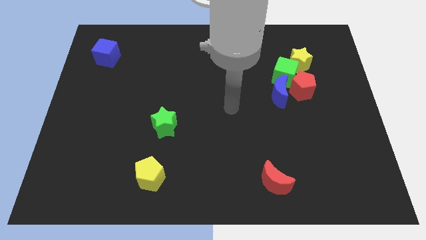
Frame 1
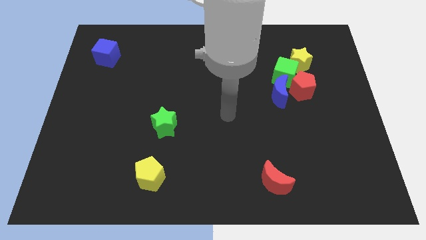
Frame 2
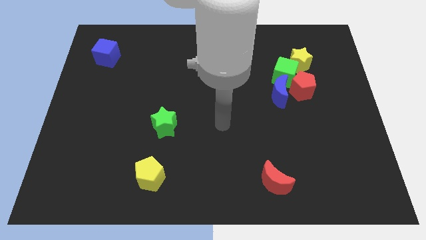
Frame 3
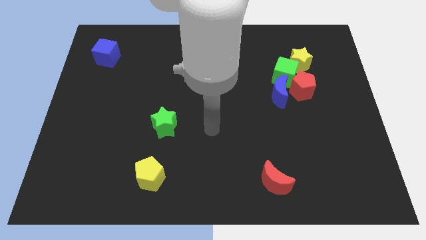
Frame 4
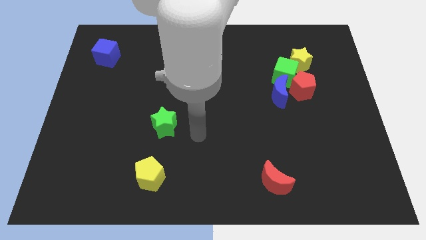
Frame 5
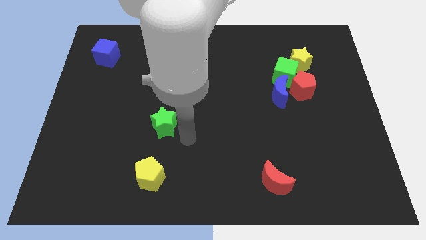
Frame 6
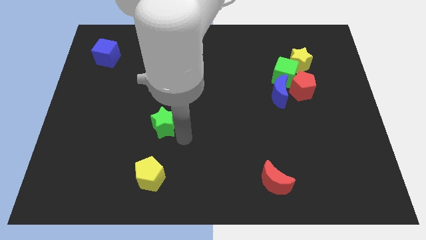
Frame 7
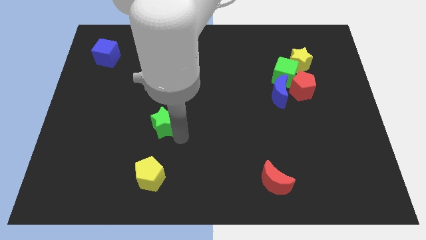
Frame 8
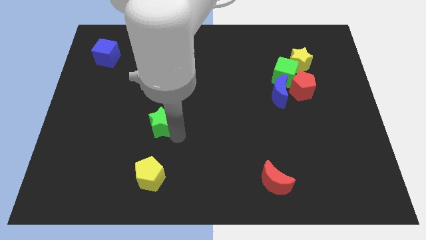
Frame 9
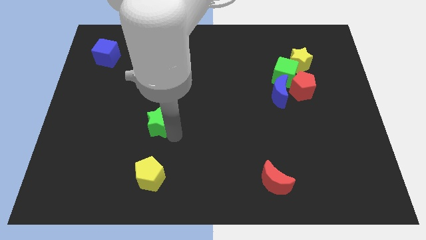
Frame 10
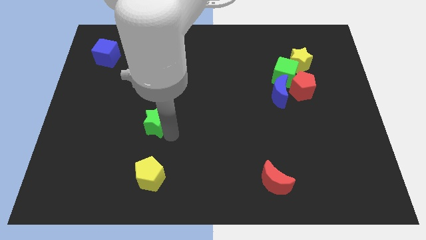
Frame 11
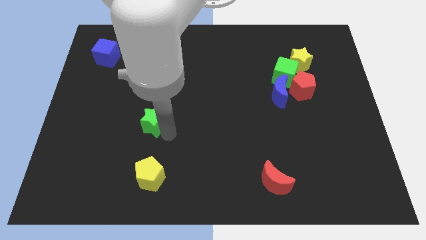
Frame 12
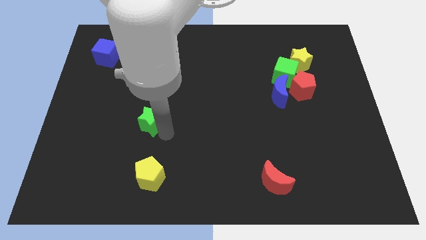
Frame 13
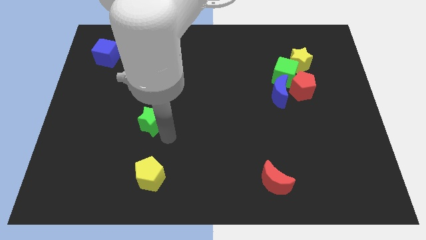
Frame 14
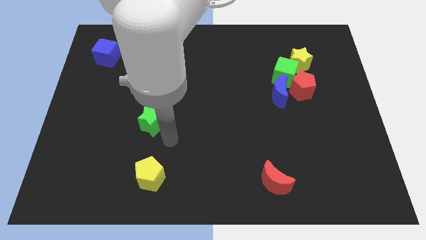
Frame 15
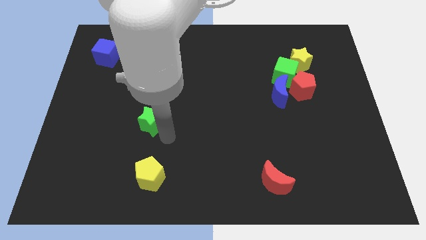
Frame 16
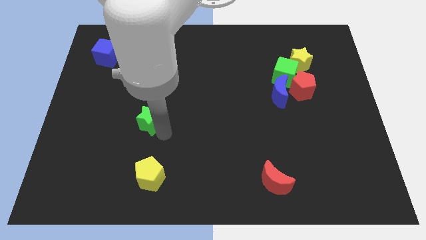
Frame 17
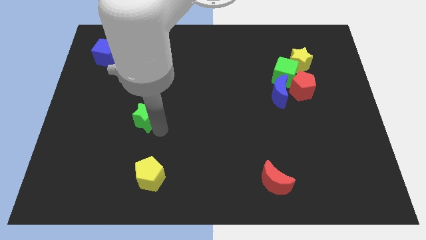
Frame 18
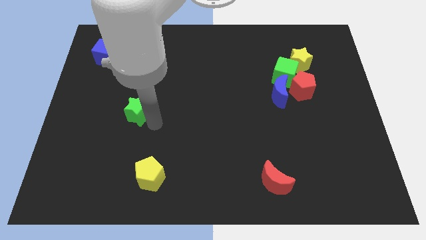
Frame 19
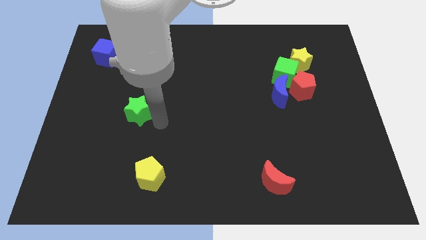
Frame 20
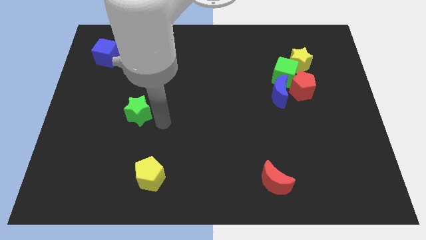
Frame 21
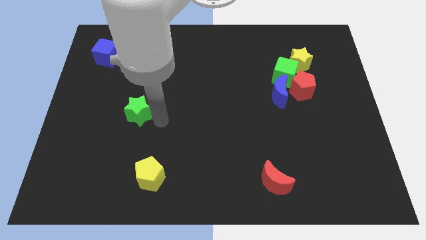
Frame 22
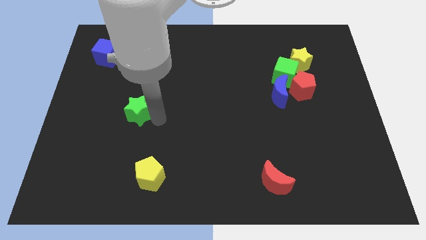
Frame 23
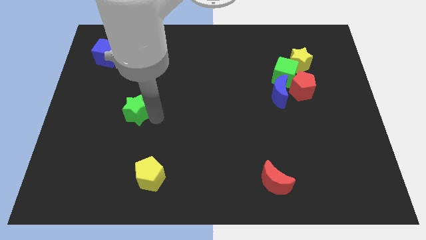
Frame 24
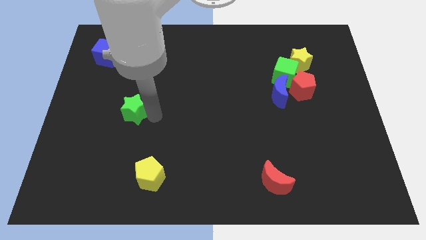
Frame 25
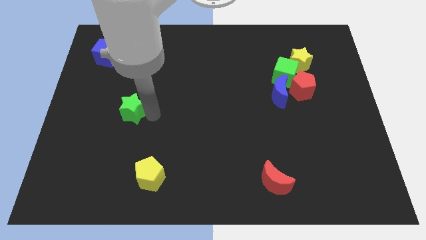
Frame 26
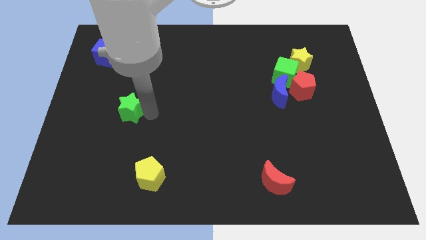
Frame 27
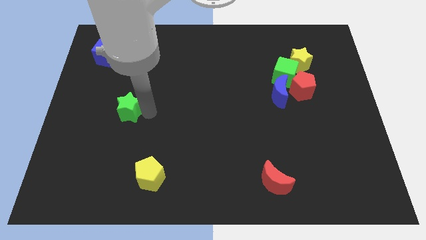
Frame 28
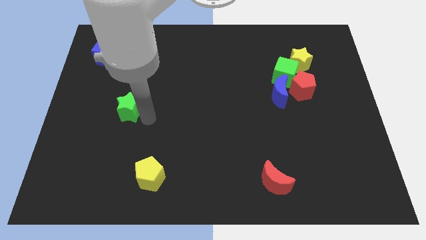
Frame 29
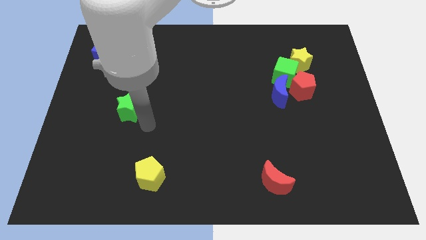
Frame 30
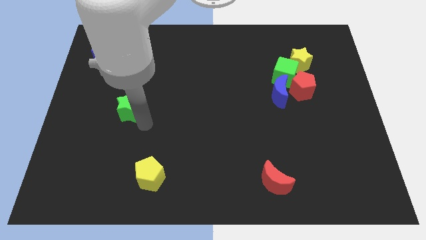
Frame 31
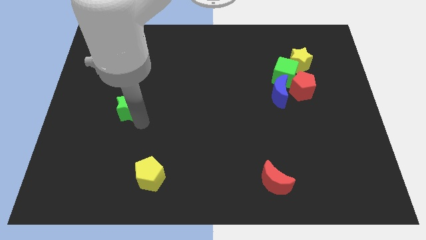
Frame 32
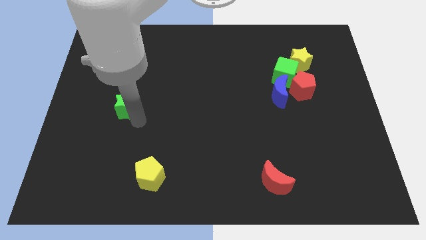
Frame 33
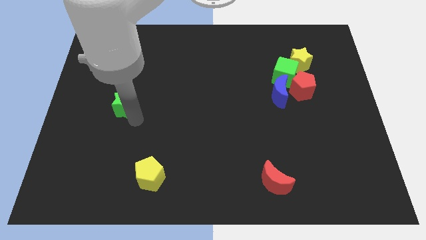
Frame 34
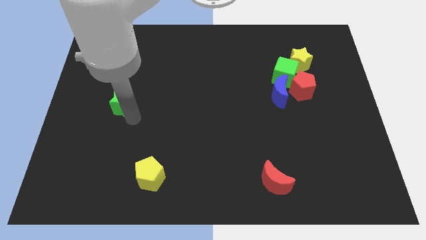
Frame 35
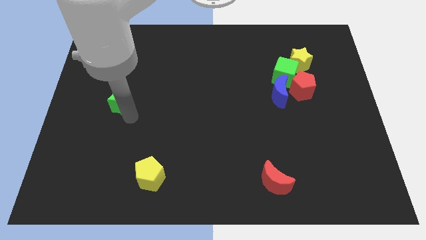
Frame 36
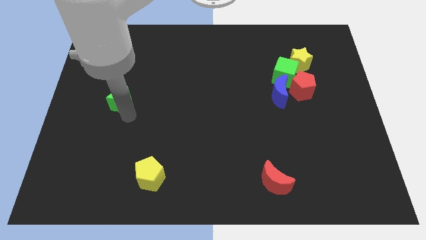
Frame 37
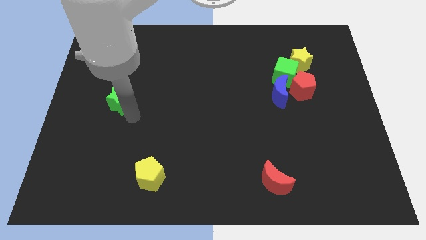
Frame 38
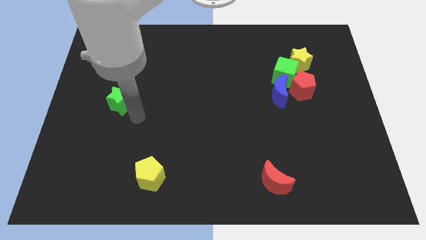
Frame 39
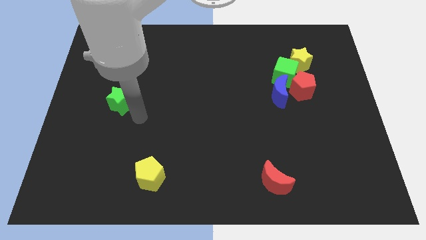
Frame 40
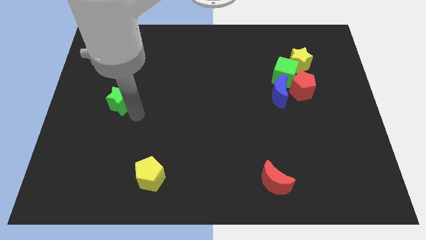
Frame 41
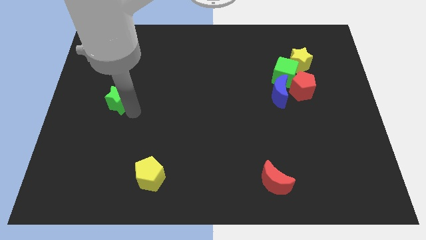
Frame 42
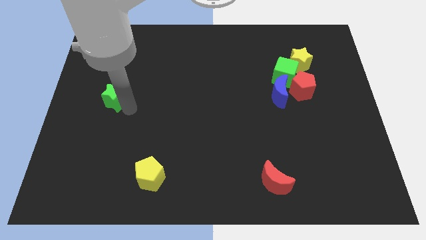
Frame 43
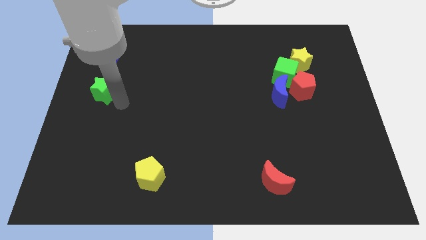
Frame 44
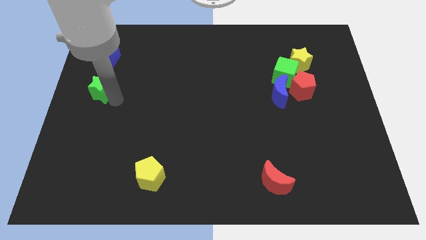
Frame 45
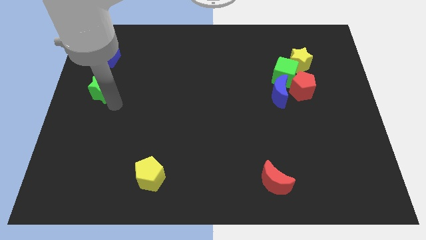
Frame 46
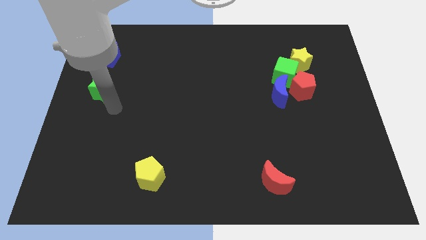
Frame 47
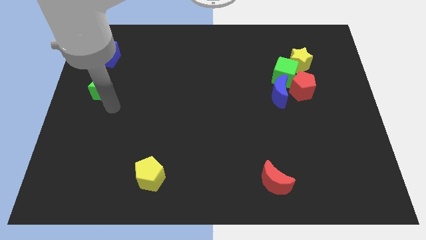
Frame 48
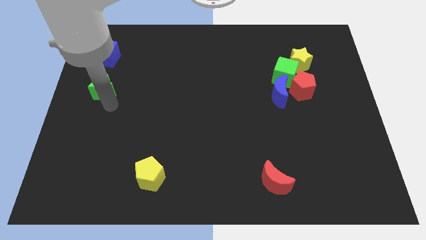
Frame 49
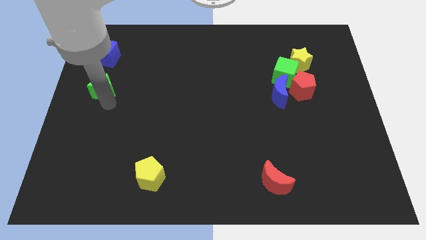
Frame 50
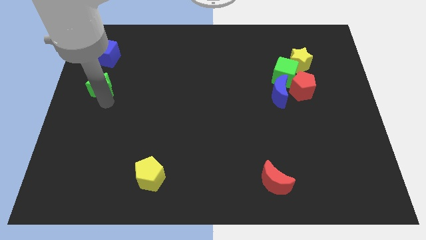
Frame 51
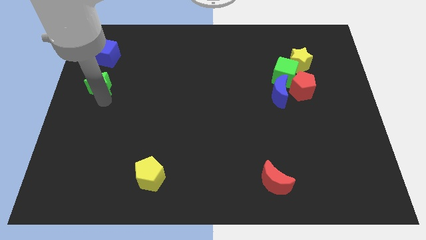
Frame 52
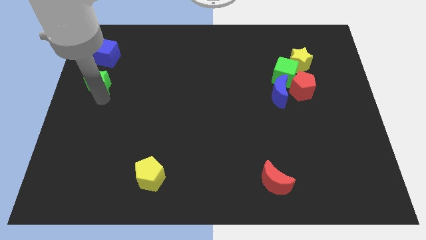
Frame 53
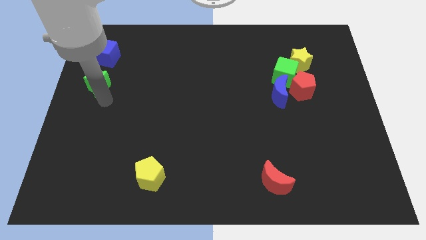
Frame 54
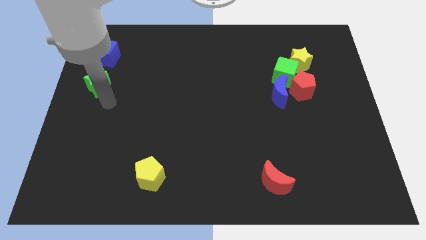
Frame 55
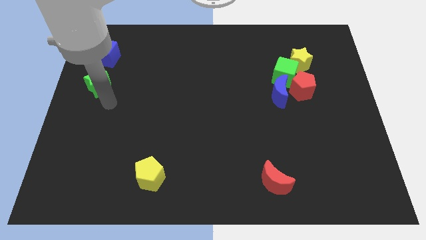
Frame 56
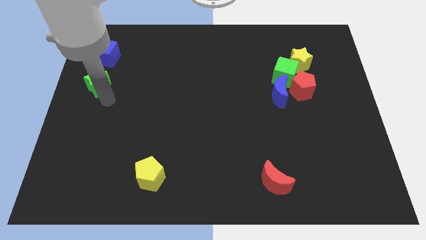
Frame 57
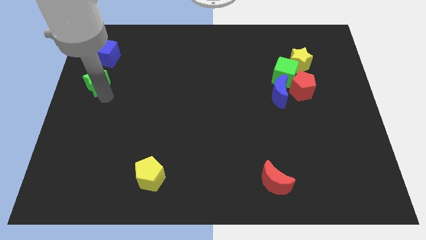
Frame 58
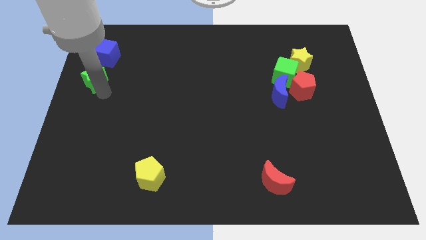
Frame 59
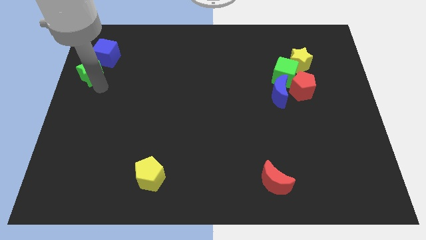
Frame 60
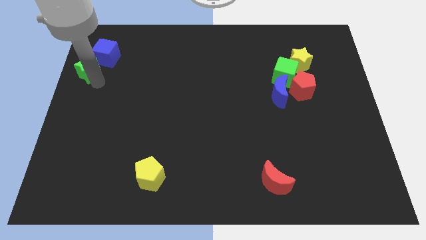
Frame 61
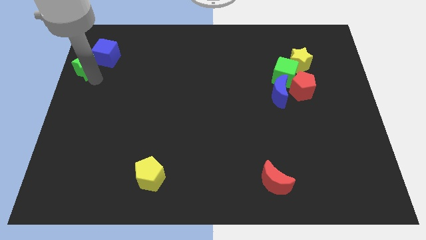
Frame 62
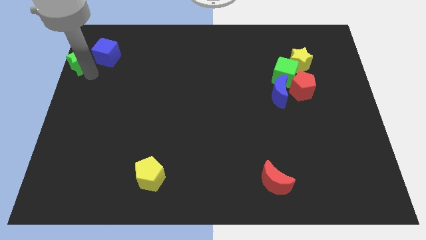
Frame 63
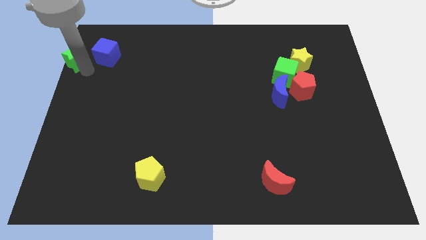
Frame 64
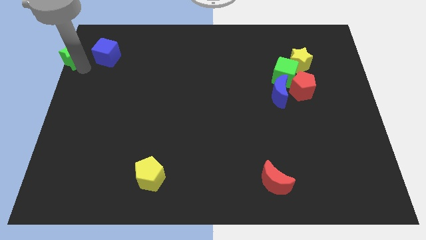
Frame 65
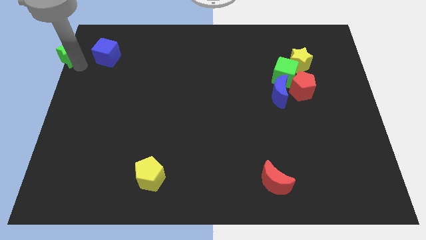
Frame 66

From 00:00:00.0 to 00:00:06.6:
move the green star to the top left of the board

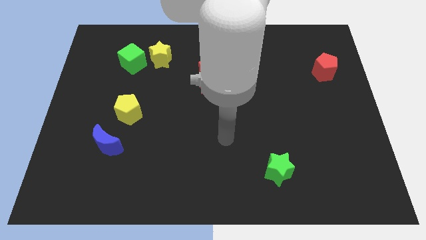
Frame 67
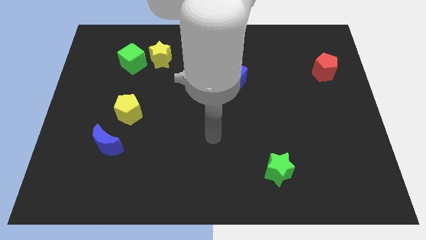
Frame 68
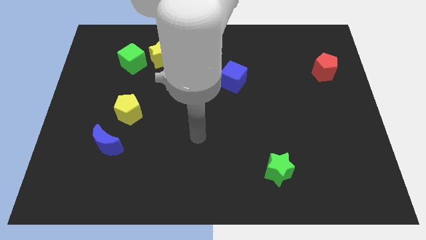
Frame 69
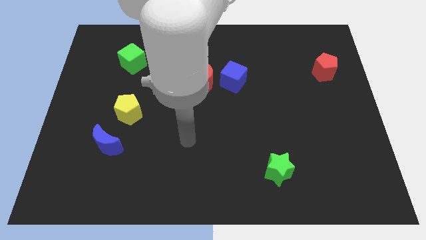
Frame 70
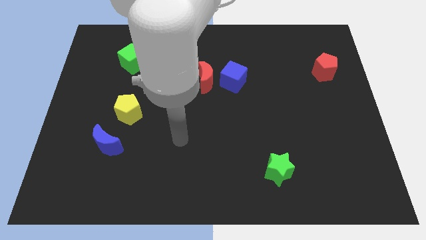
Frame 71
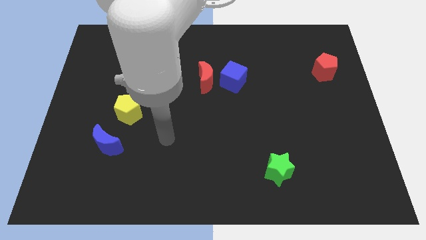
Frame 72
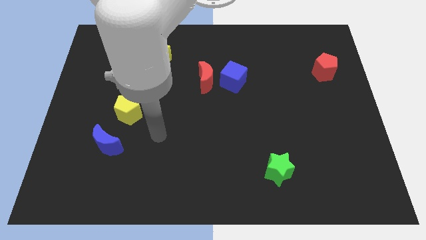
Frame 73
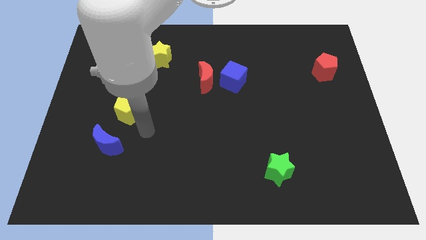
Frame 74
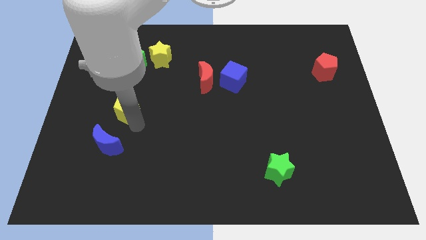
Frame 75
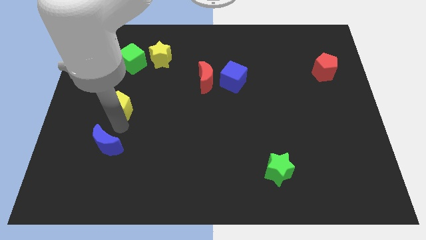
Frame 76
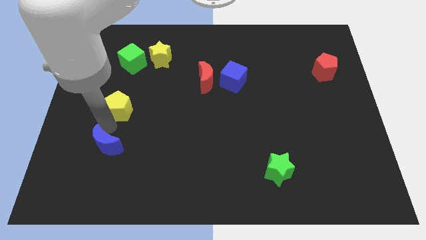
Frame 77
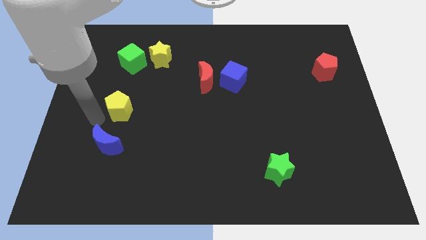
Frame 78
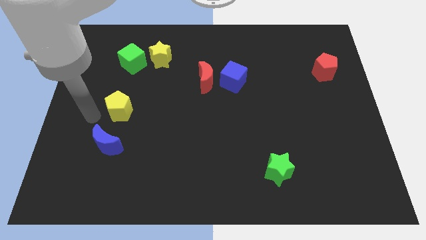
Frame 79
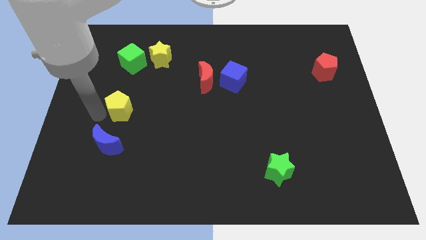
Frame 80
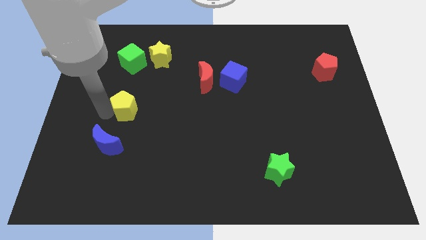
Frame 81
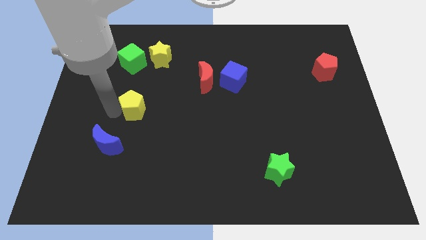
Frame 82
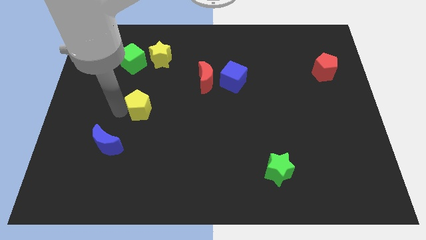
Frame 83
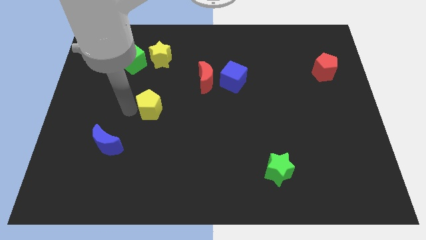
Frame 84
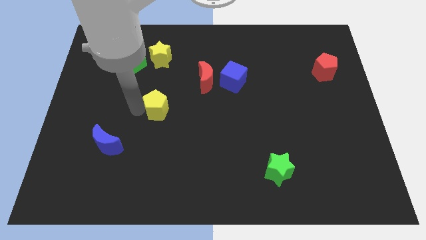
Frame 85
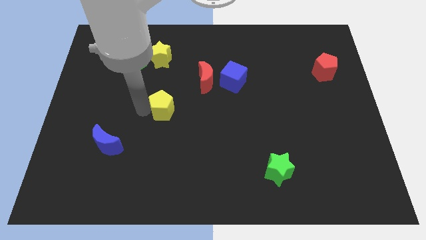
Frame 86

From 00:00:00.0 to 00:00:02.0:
move the yellow pentagon to the center of the board
